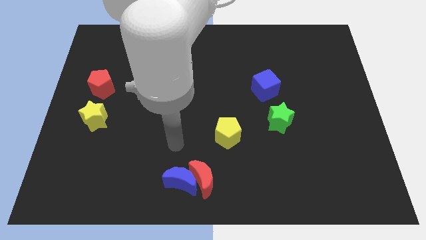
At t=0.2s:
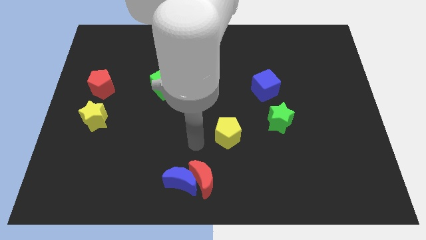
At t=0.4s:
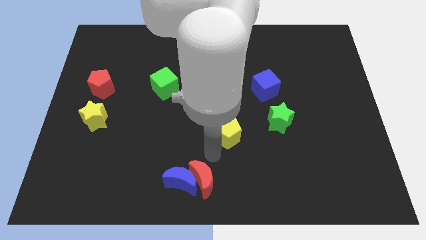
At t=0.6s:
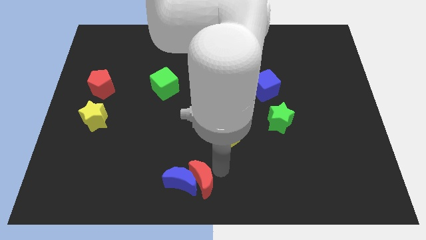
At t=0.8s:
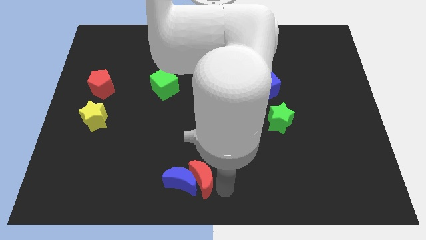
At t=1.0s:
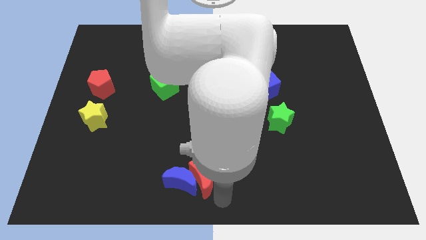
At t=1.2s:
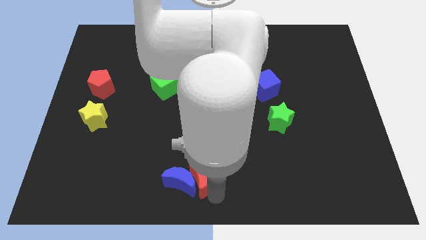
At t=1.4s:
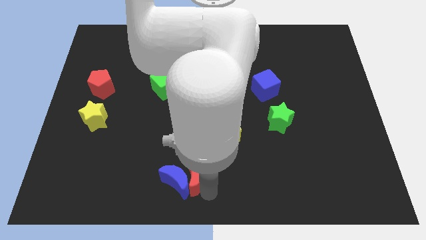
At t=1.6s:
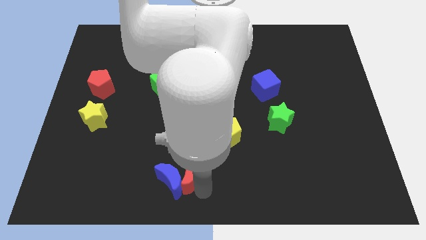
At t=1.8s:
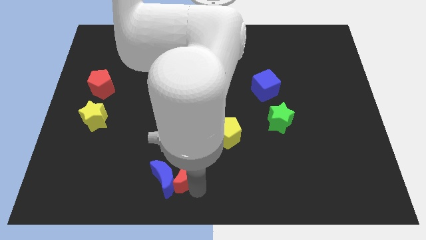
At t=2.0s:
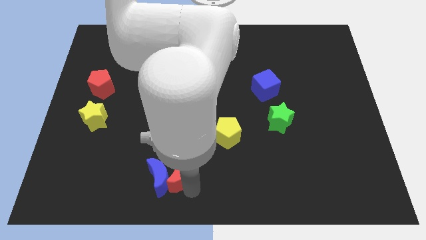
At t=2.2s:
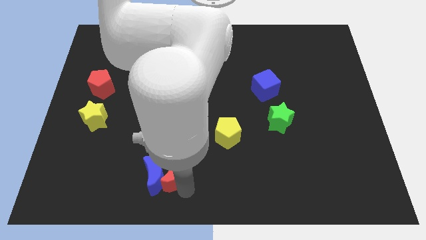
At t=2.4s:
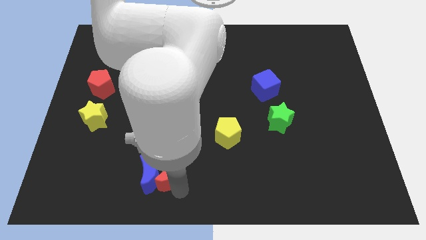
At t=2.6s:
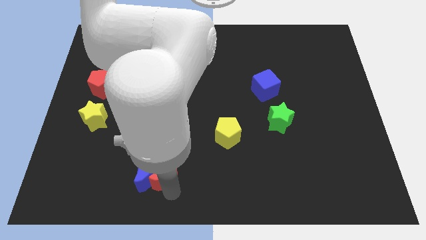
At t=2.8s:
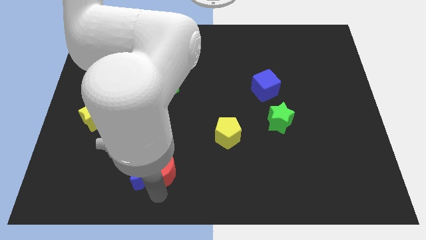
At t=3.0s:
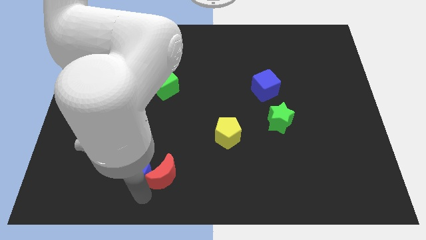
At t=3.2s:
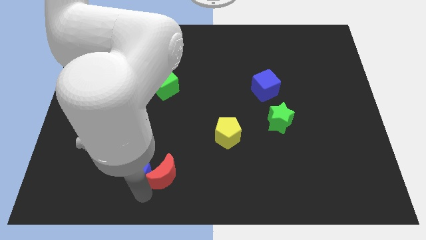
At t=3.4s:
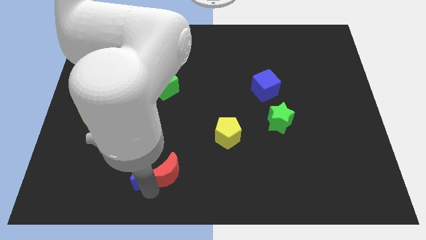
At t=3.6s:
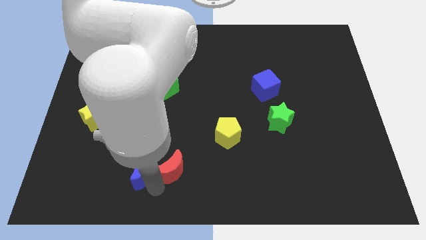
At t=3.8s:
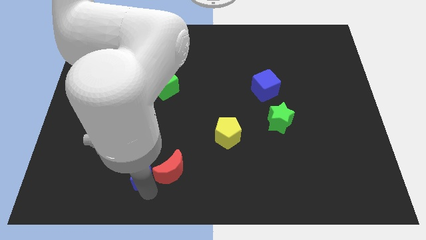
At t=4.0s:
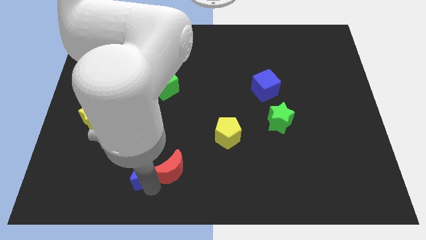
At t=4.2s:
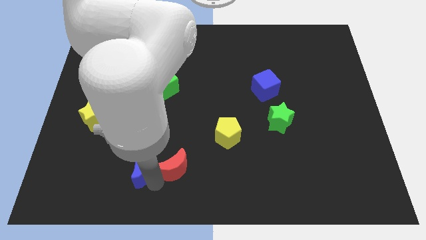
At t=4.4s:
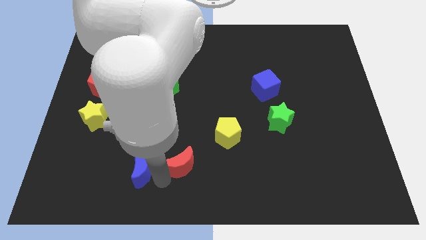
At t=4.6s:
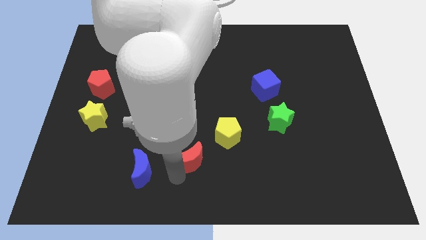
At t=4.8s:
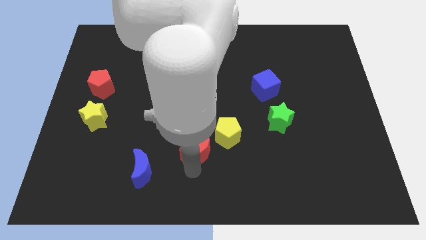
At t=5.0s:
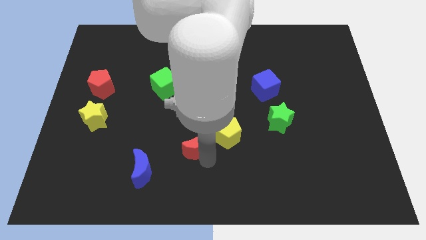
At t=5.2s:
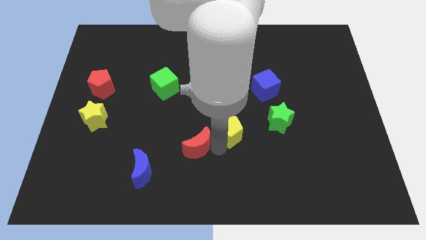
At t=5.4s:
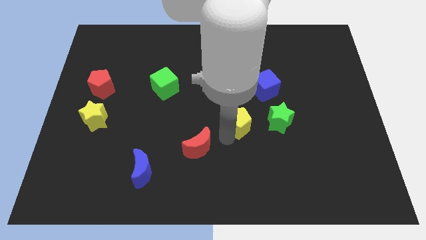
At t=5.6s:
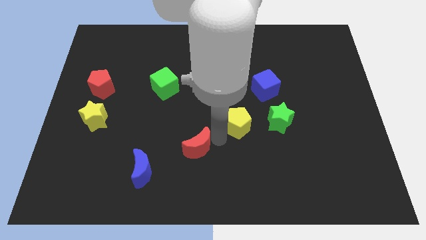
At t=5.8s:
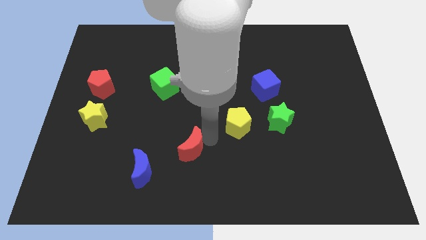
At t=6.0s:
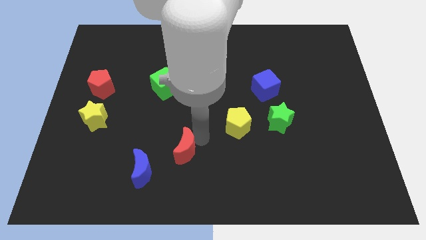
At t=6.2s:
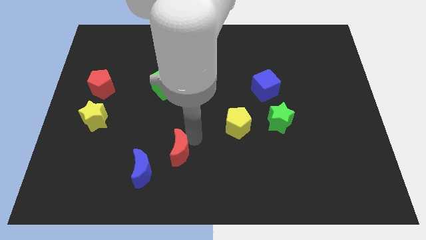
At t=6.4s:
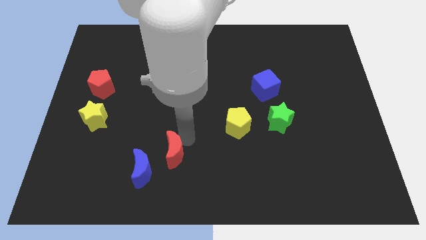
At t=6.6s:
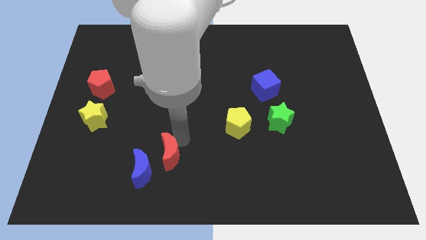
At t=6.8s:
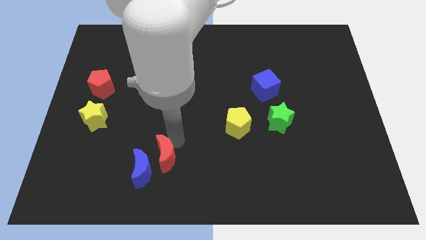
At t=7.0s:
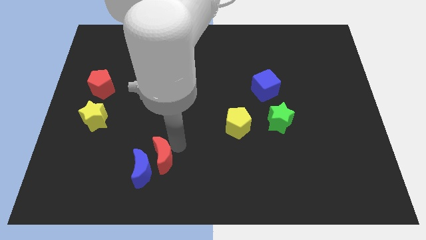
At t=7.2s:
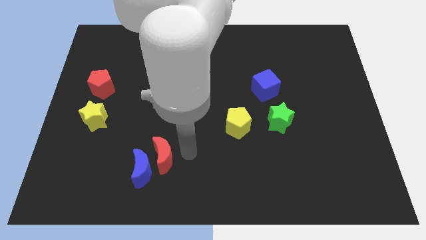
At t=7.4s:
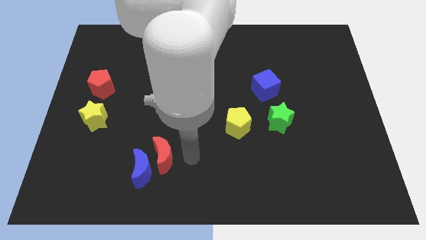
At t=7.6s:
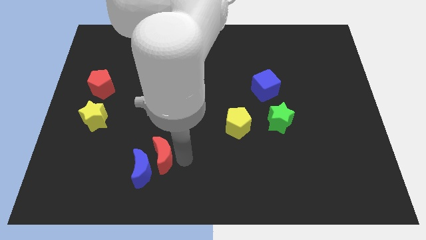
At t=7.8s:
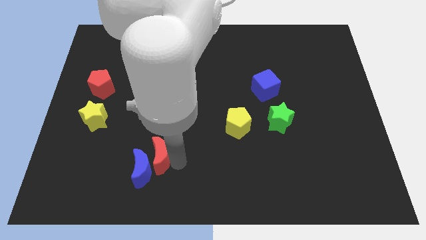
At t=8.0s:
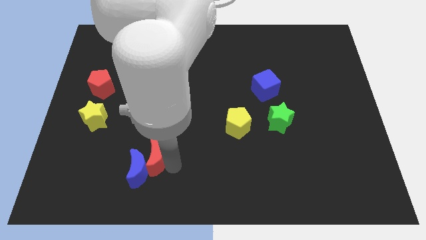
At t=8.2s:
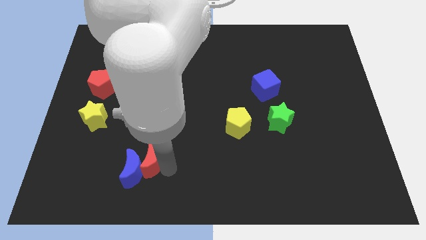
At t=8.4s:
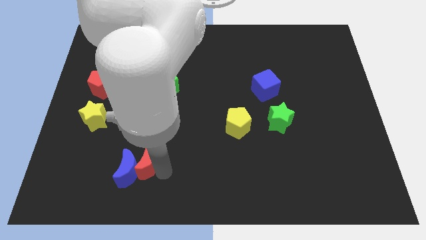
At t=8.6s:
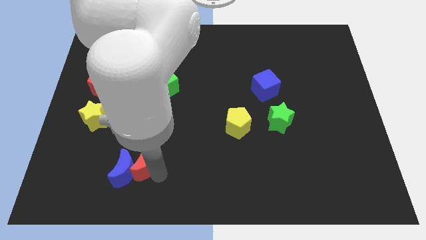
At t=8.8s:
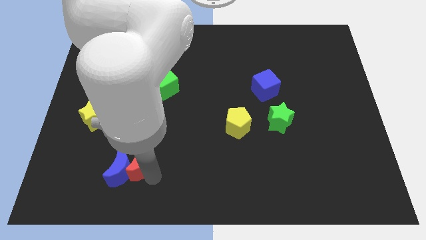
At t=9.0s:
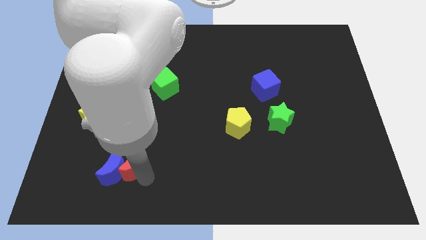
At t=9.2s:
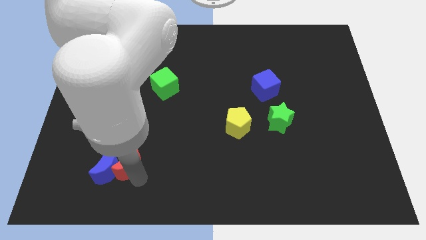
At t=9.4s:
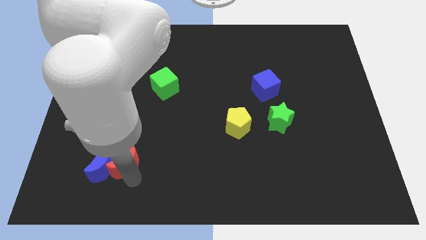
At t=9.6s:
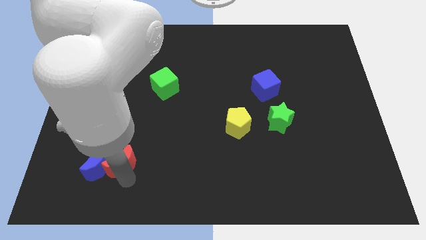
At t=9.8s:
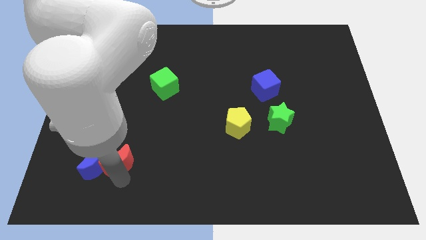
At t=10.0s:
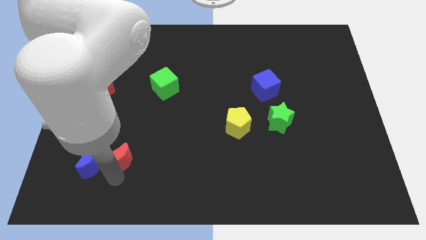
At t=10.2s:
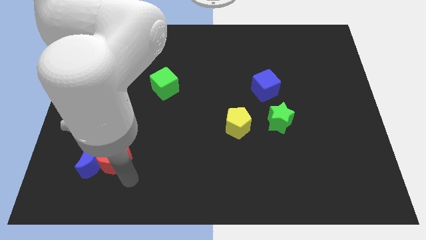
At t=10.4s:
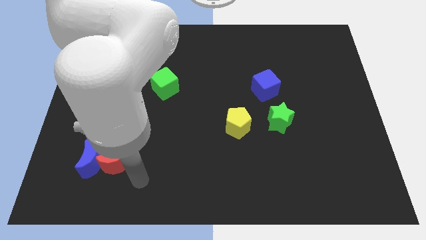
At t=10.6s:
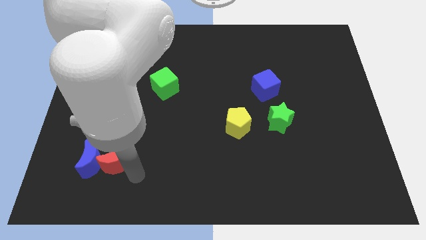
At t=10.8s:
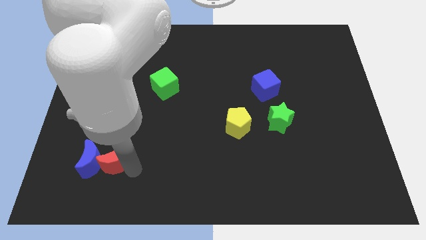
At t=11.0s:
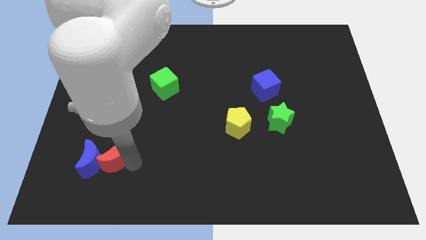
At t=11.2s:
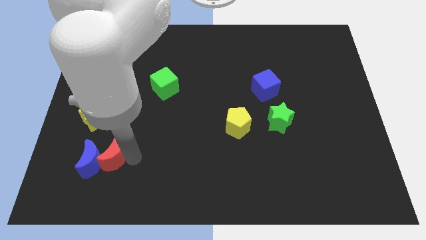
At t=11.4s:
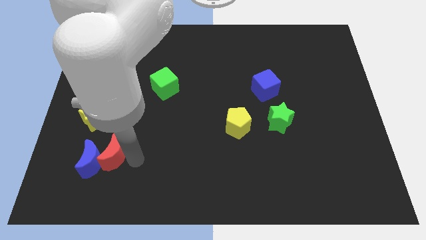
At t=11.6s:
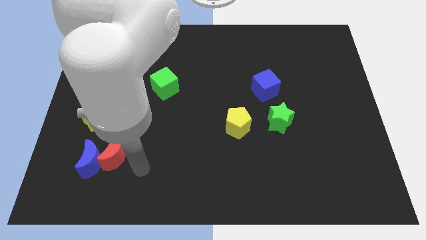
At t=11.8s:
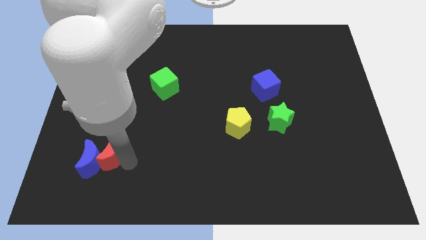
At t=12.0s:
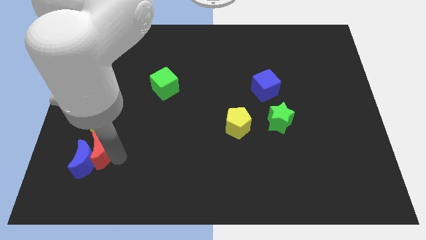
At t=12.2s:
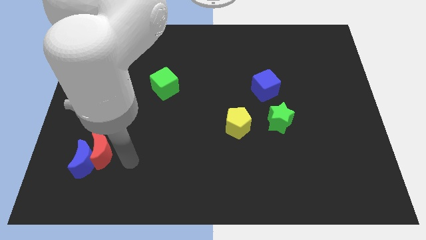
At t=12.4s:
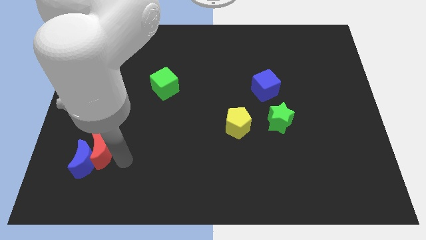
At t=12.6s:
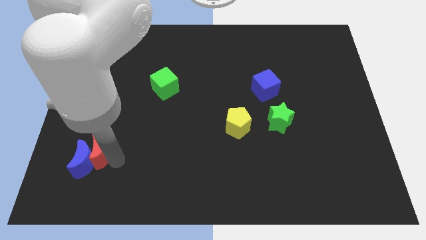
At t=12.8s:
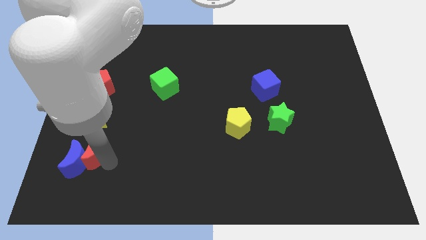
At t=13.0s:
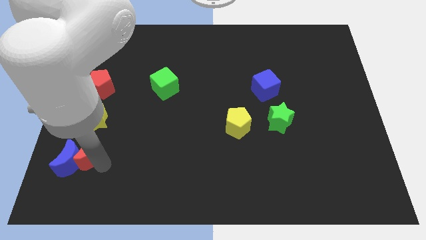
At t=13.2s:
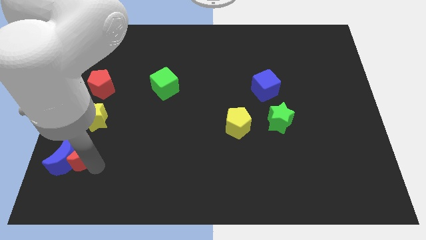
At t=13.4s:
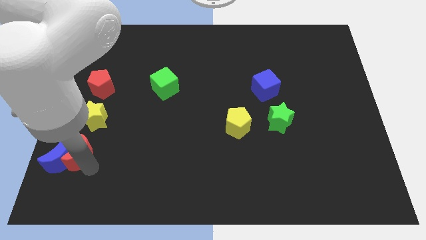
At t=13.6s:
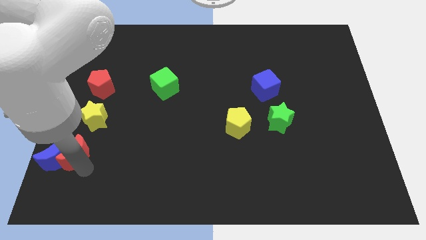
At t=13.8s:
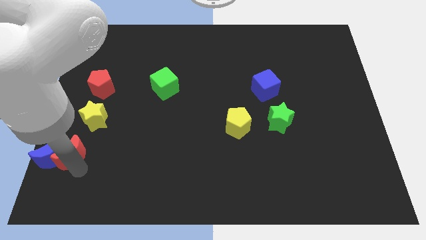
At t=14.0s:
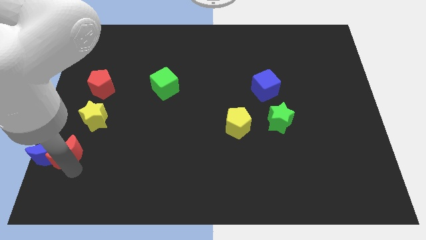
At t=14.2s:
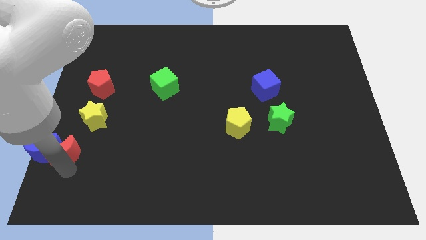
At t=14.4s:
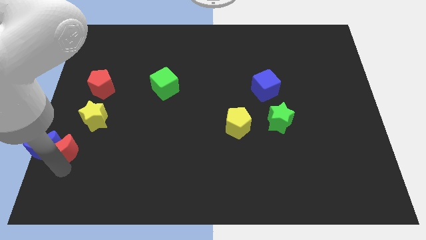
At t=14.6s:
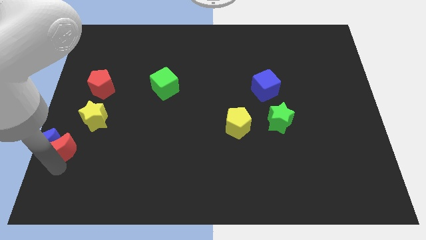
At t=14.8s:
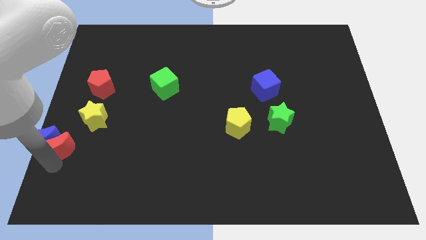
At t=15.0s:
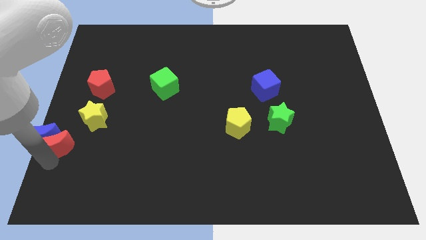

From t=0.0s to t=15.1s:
push the red moon to the center left
